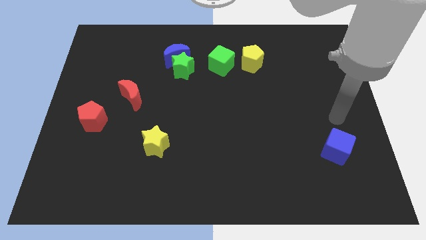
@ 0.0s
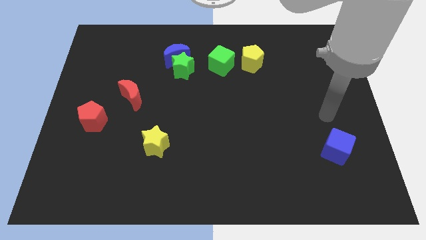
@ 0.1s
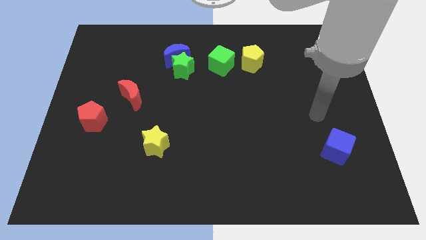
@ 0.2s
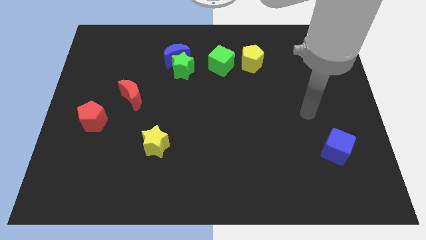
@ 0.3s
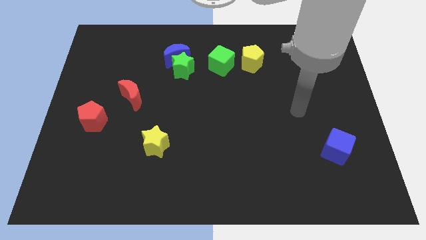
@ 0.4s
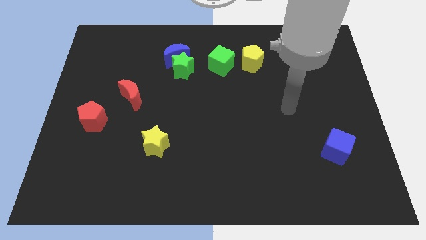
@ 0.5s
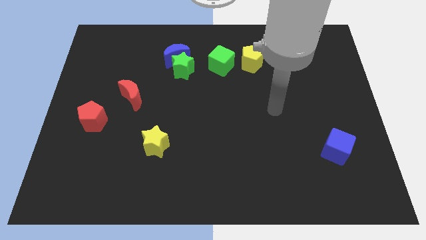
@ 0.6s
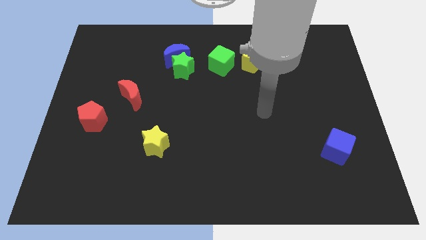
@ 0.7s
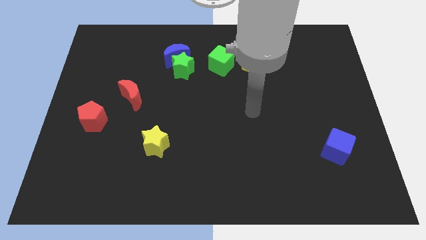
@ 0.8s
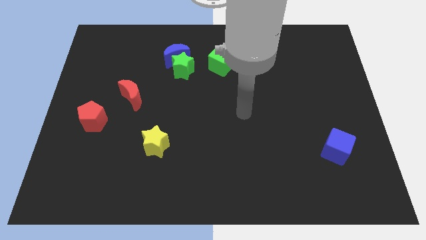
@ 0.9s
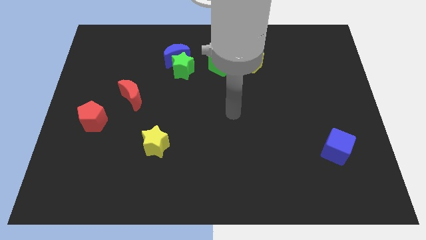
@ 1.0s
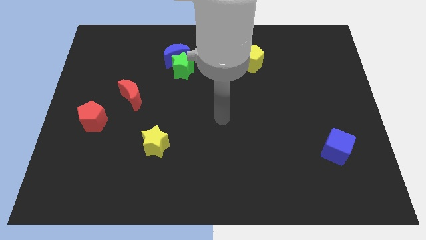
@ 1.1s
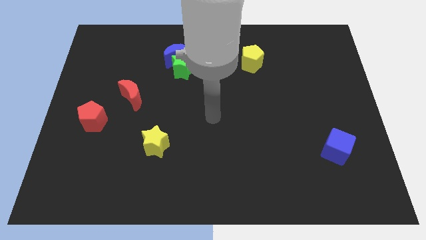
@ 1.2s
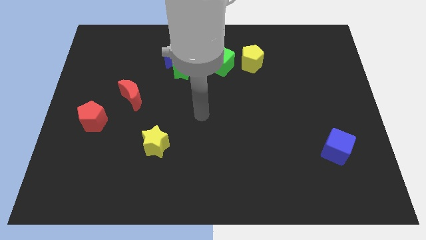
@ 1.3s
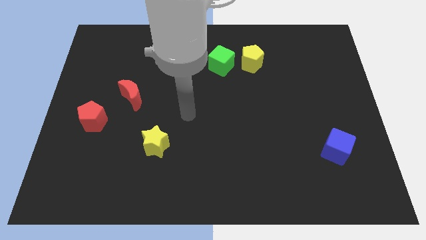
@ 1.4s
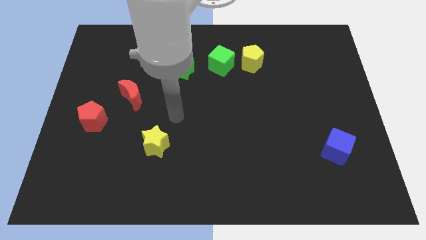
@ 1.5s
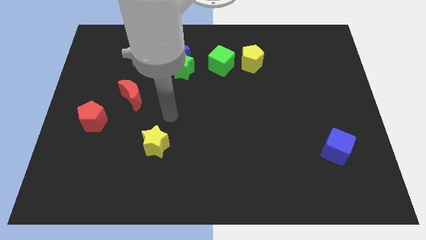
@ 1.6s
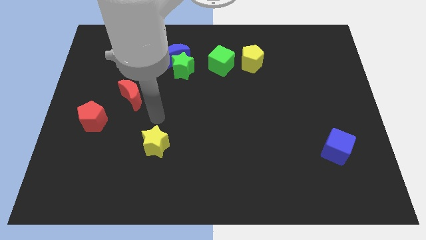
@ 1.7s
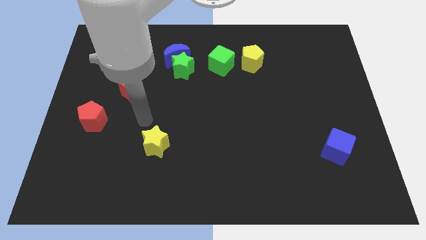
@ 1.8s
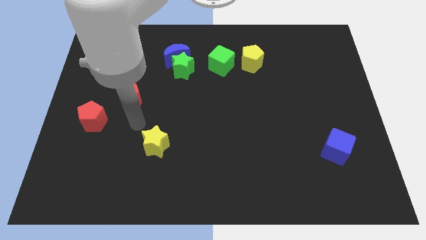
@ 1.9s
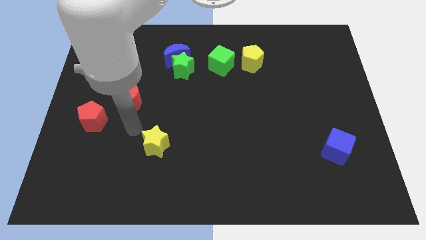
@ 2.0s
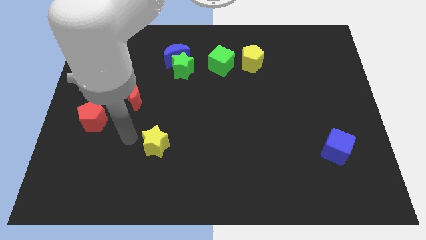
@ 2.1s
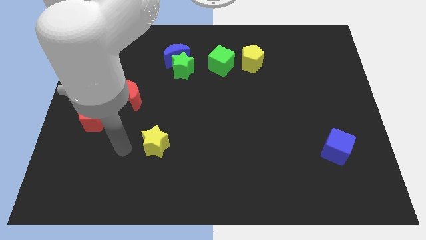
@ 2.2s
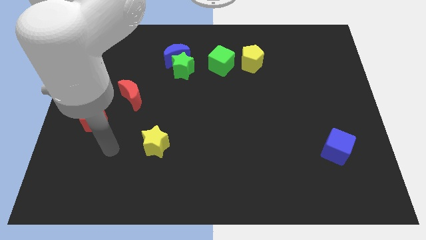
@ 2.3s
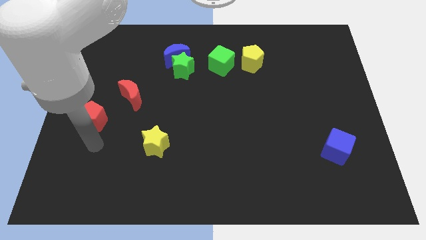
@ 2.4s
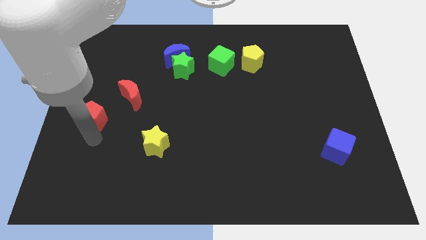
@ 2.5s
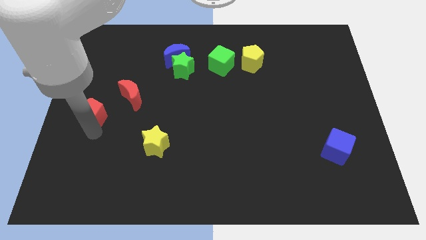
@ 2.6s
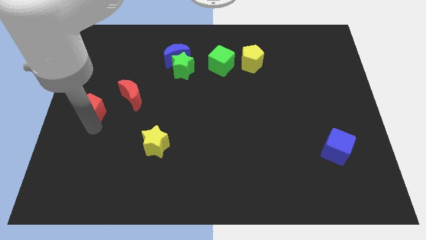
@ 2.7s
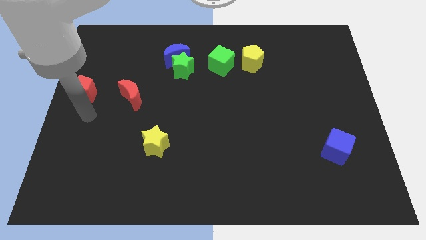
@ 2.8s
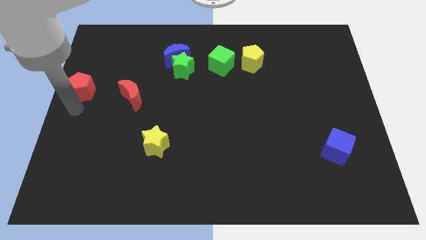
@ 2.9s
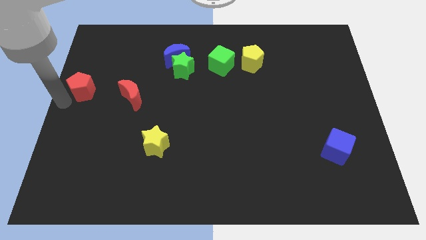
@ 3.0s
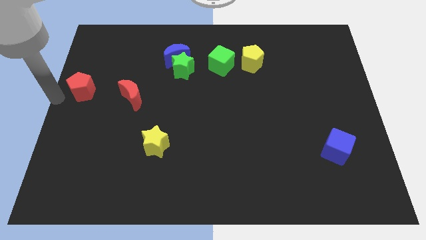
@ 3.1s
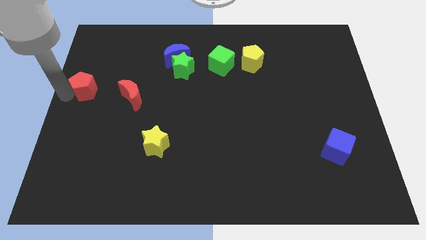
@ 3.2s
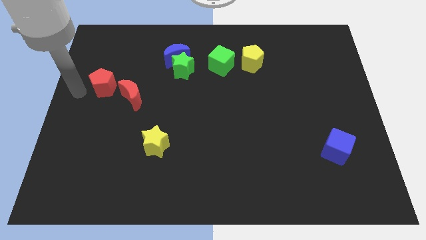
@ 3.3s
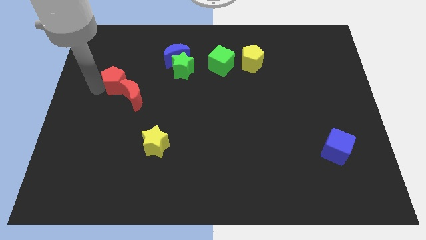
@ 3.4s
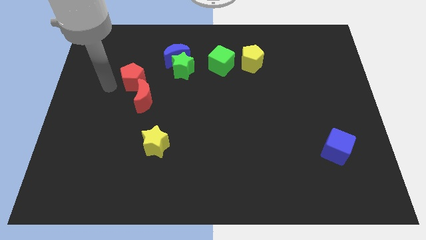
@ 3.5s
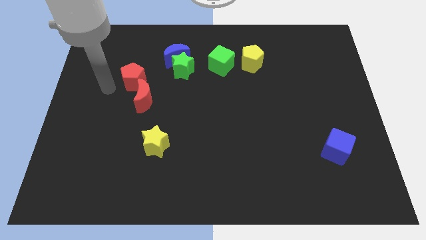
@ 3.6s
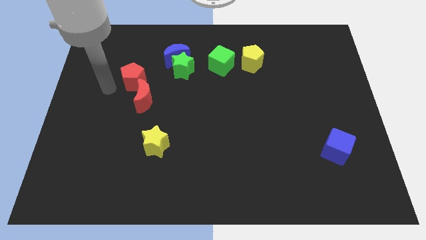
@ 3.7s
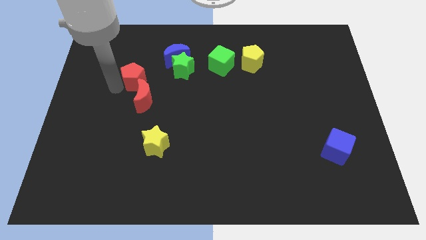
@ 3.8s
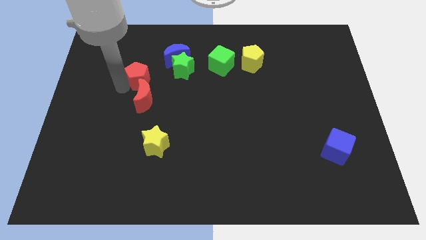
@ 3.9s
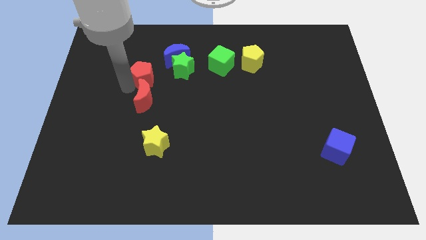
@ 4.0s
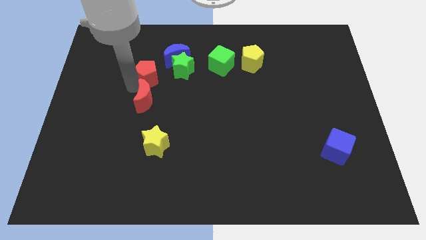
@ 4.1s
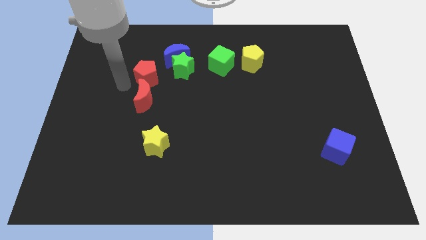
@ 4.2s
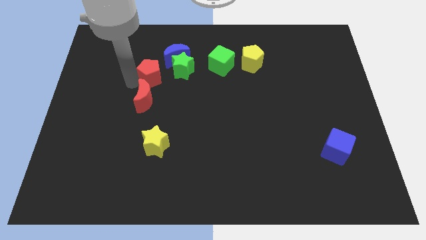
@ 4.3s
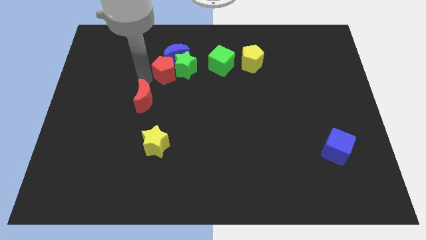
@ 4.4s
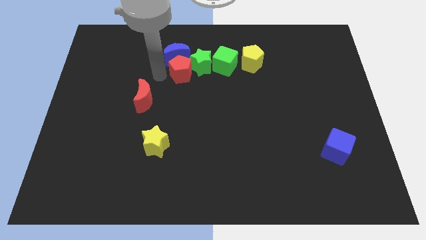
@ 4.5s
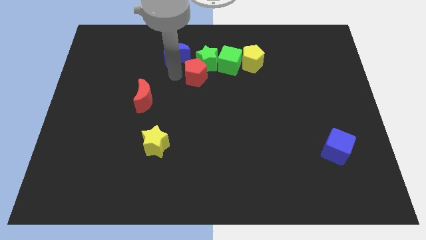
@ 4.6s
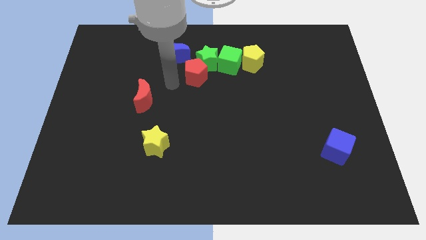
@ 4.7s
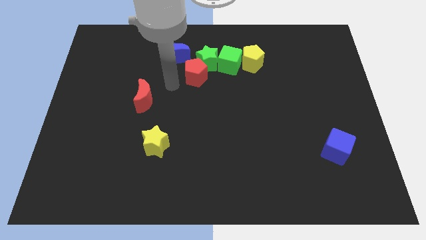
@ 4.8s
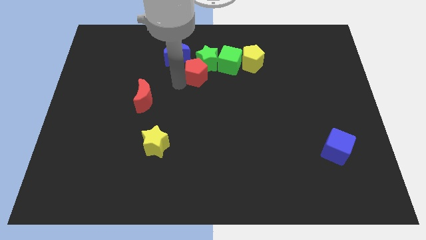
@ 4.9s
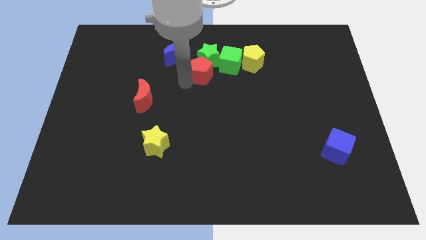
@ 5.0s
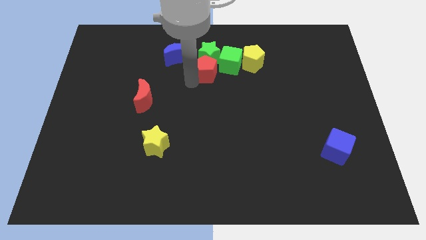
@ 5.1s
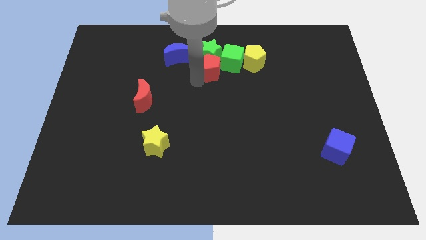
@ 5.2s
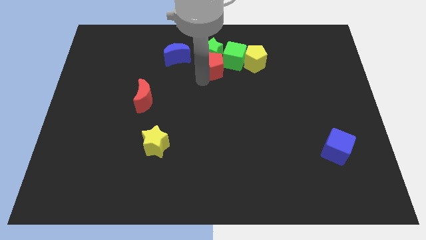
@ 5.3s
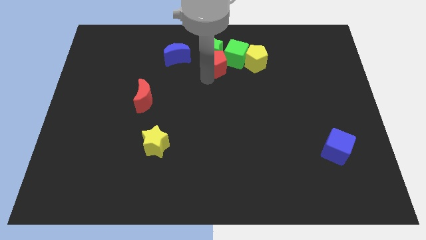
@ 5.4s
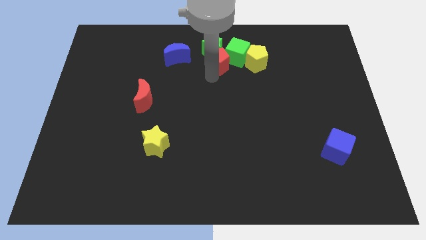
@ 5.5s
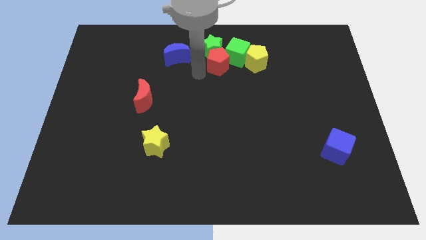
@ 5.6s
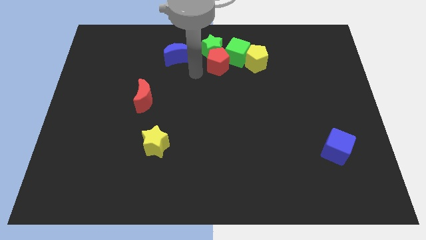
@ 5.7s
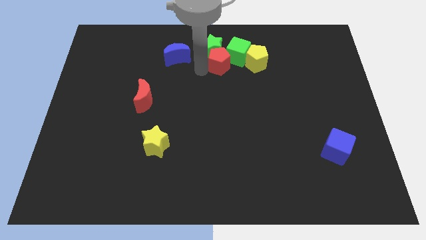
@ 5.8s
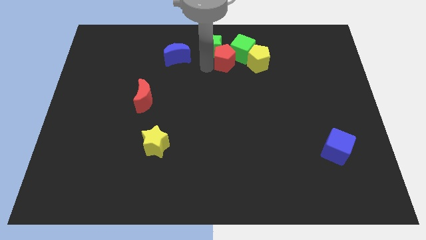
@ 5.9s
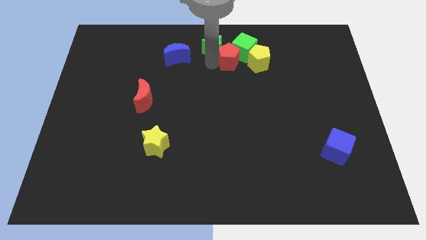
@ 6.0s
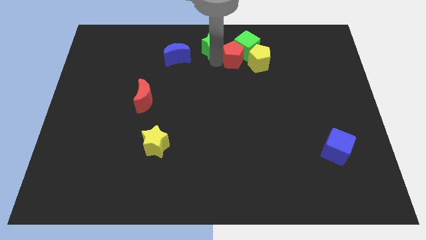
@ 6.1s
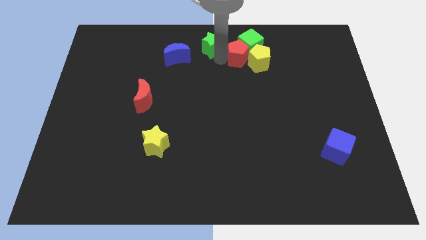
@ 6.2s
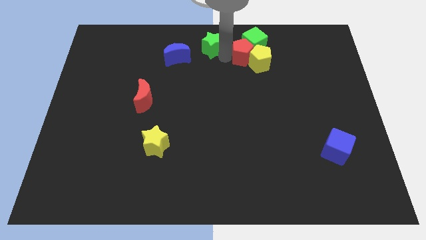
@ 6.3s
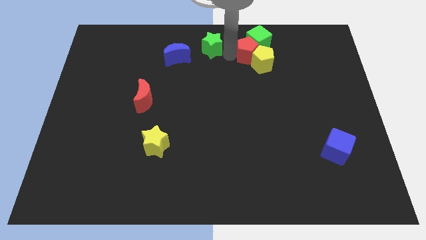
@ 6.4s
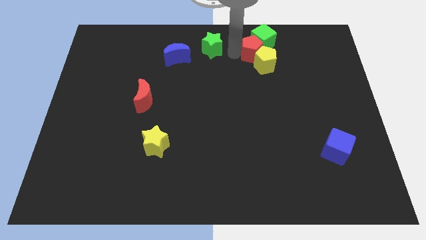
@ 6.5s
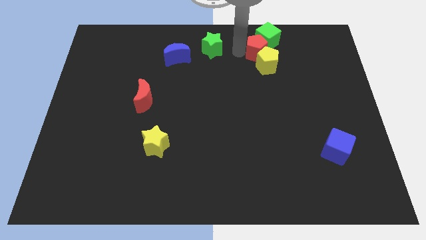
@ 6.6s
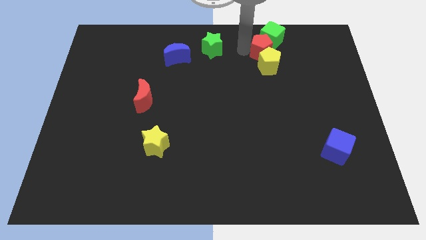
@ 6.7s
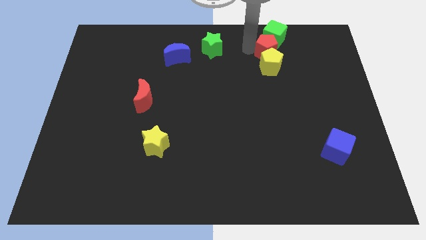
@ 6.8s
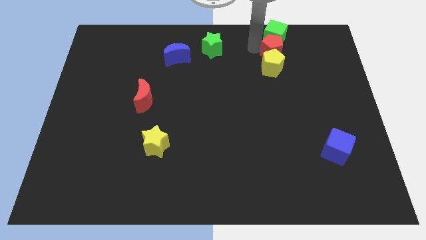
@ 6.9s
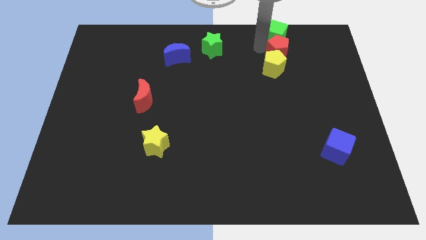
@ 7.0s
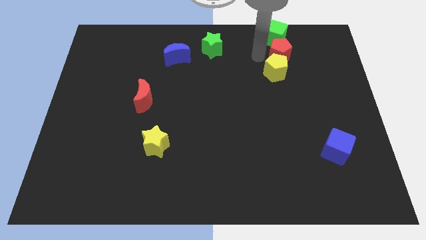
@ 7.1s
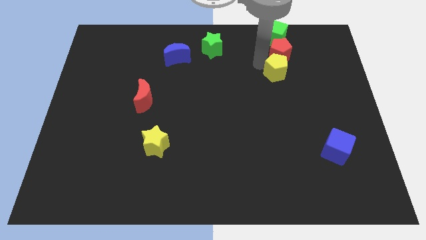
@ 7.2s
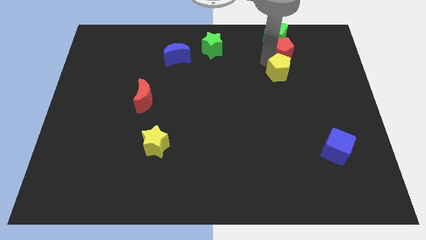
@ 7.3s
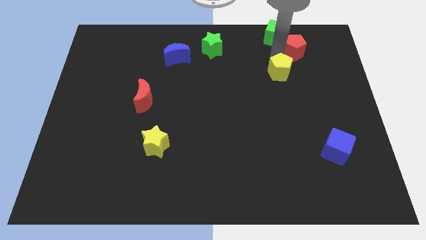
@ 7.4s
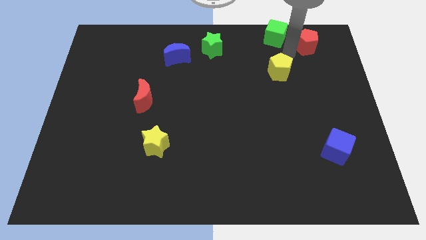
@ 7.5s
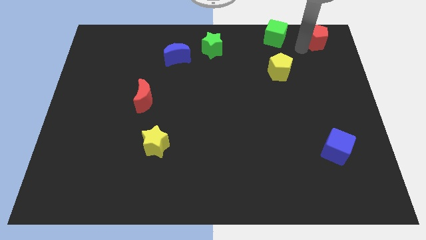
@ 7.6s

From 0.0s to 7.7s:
slide the red pentagon to the top right of the board
